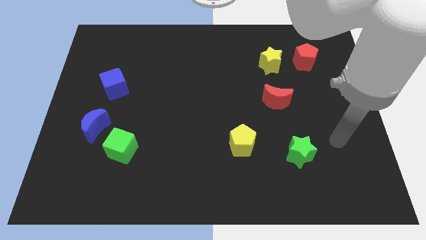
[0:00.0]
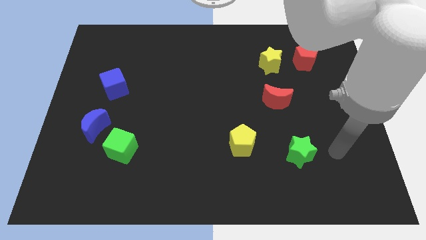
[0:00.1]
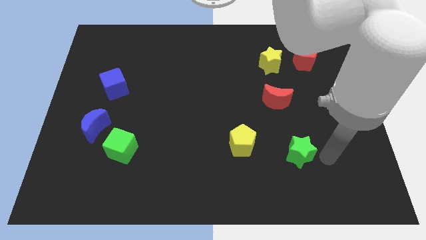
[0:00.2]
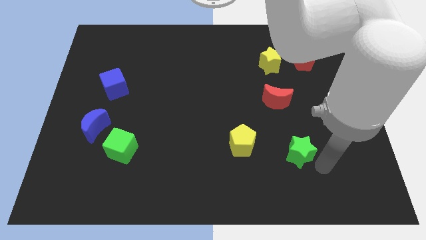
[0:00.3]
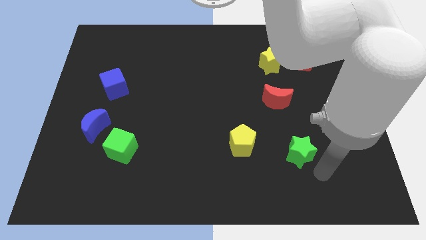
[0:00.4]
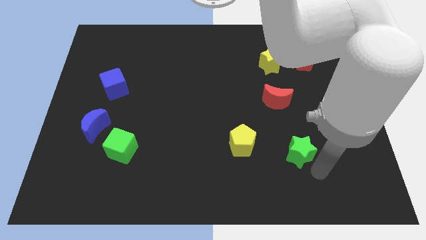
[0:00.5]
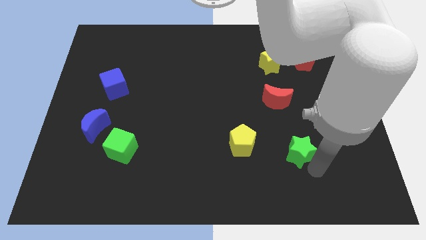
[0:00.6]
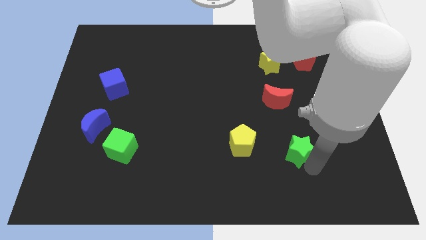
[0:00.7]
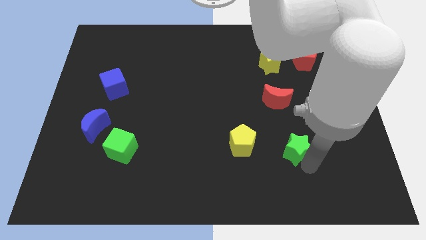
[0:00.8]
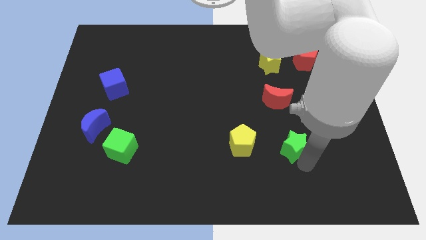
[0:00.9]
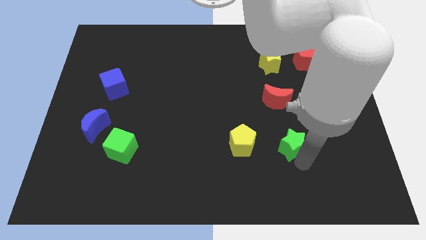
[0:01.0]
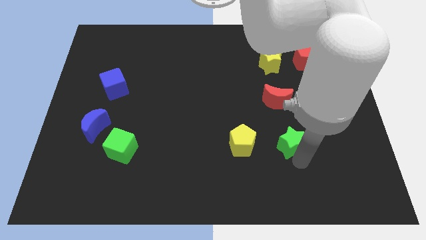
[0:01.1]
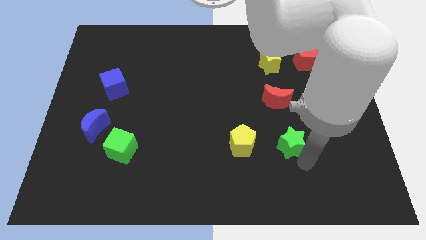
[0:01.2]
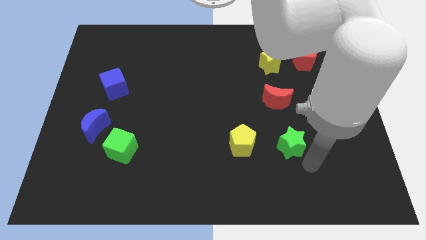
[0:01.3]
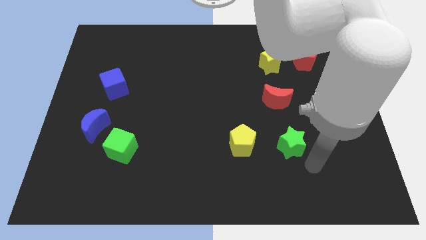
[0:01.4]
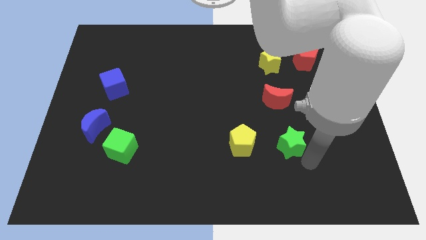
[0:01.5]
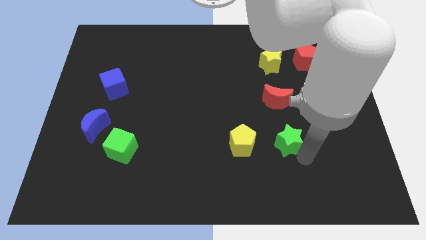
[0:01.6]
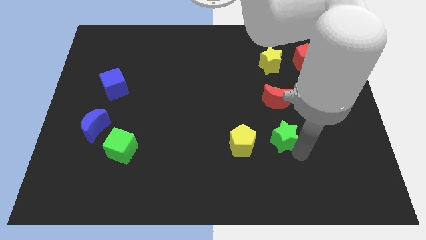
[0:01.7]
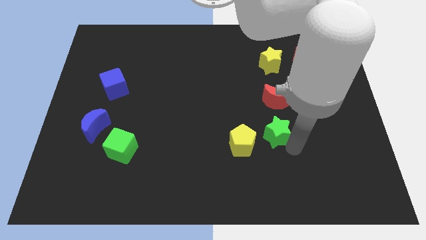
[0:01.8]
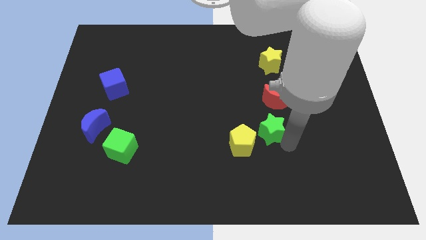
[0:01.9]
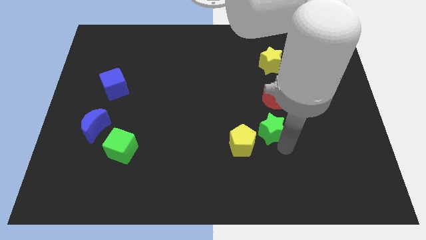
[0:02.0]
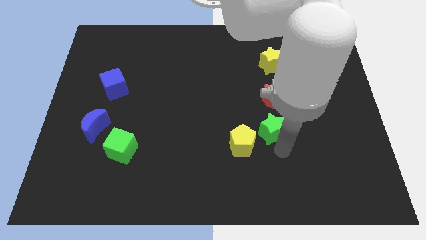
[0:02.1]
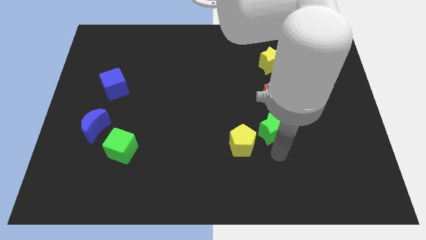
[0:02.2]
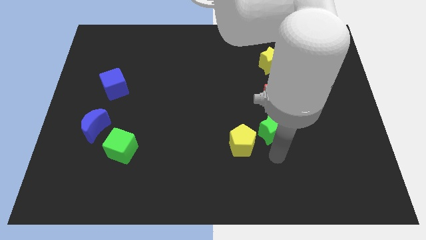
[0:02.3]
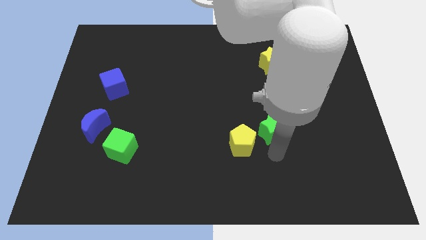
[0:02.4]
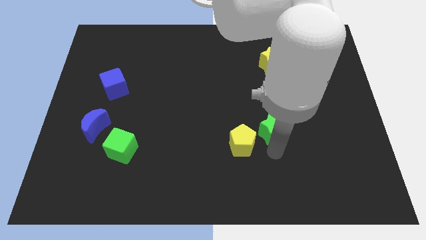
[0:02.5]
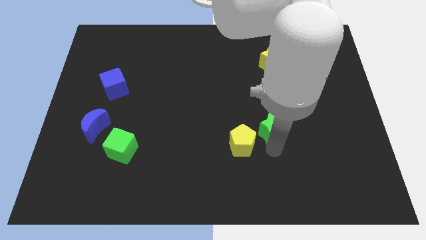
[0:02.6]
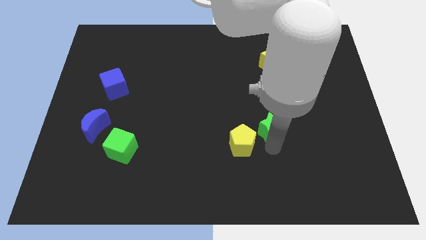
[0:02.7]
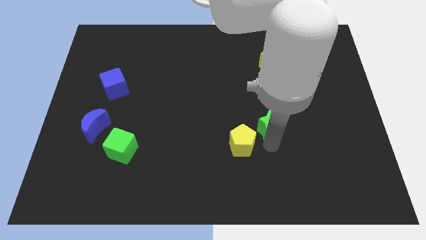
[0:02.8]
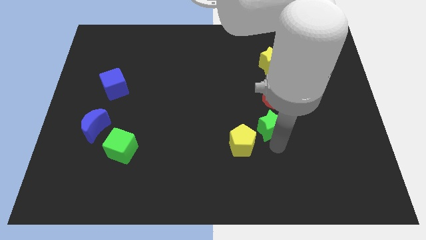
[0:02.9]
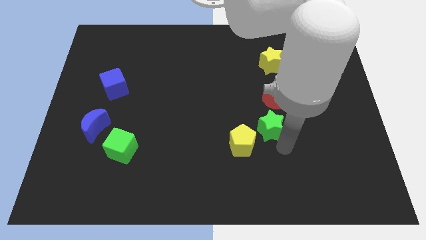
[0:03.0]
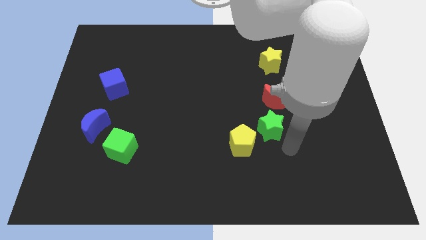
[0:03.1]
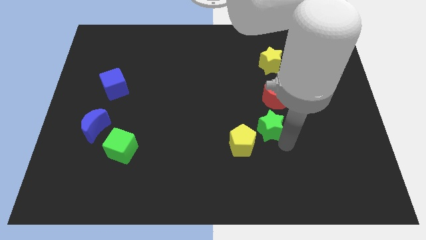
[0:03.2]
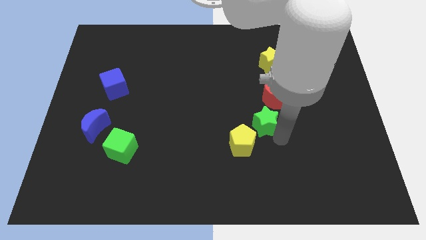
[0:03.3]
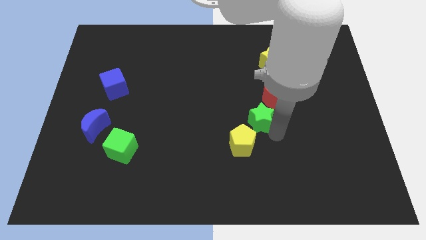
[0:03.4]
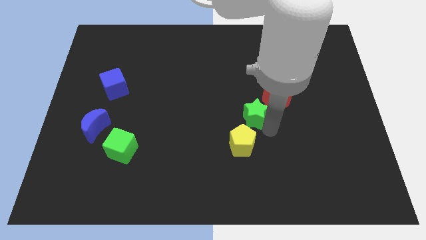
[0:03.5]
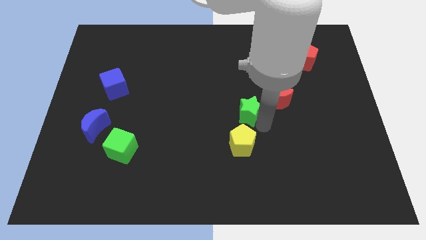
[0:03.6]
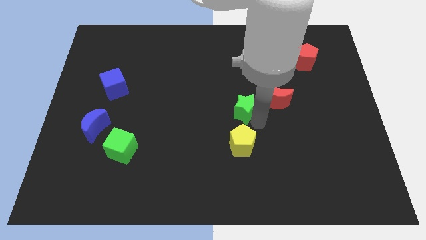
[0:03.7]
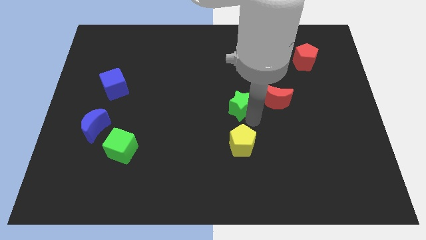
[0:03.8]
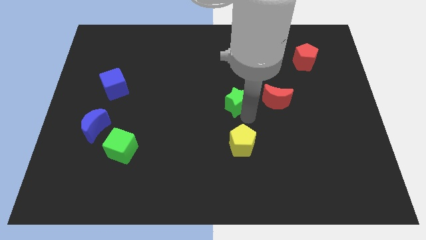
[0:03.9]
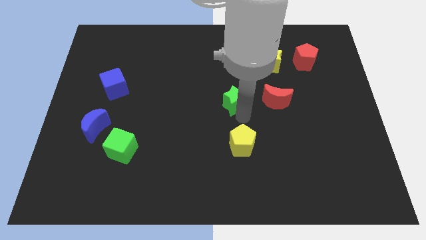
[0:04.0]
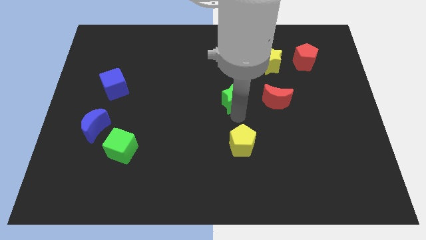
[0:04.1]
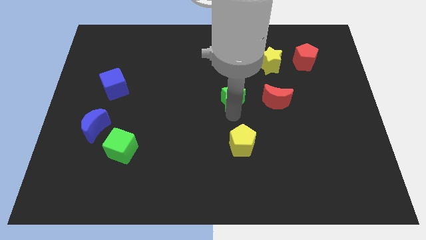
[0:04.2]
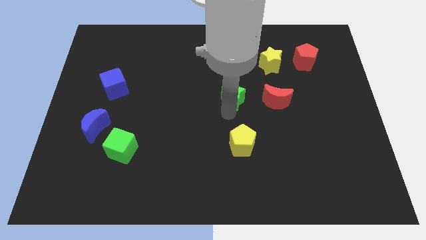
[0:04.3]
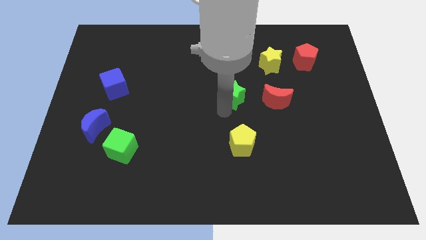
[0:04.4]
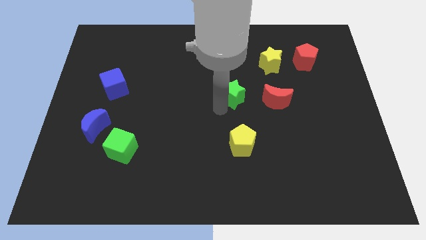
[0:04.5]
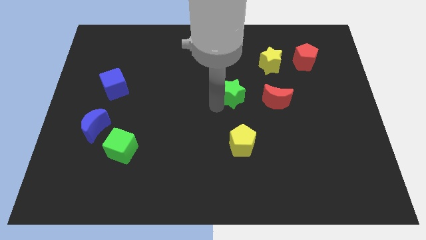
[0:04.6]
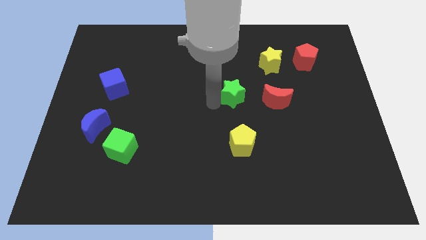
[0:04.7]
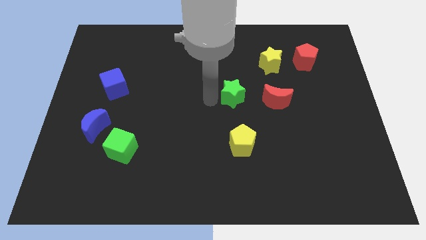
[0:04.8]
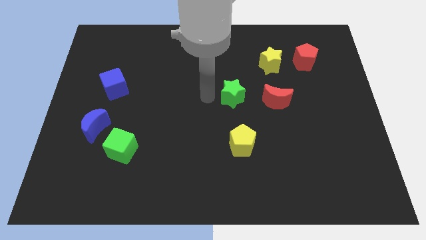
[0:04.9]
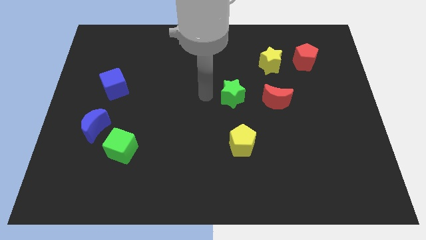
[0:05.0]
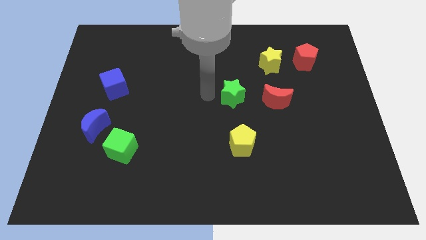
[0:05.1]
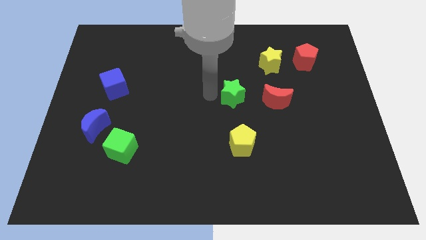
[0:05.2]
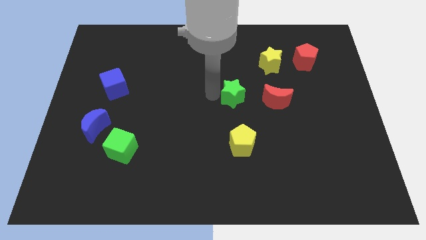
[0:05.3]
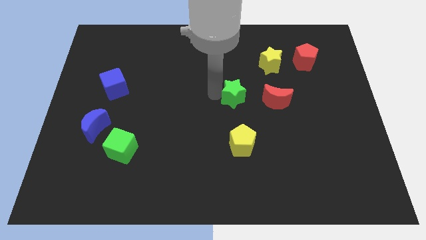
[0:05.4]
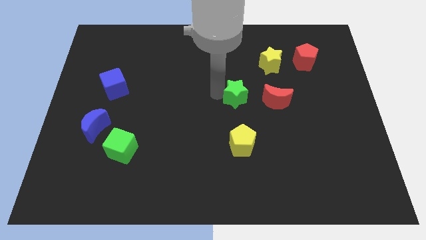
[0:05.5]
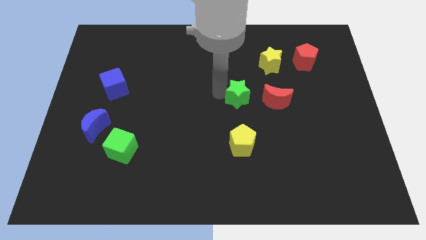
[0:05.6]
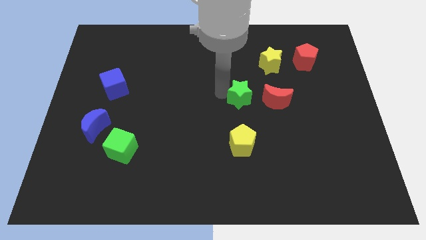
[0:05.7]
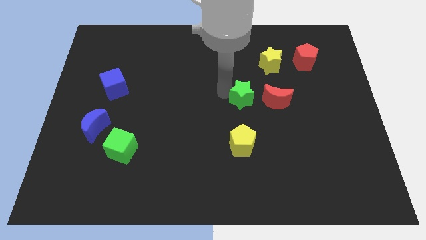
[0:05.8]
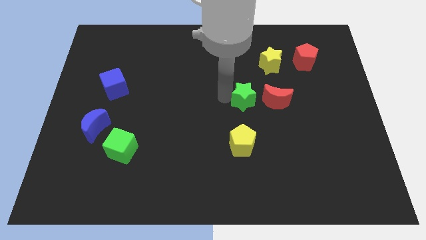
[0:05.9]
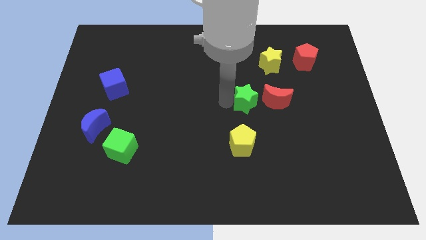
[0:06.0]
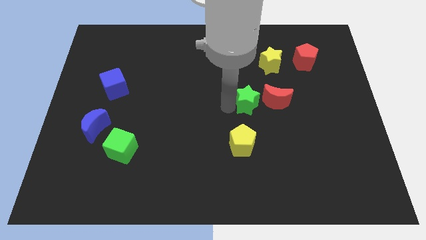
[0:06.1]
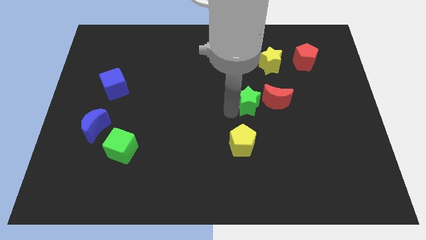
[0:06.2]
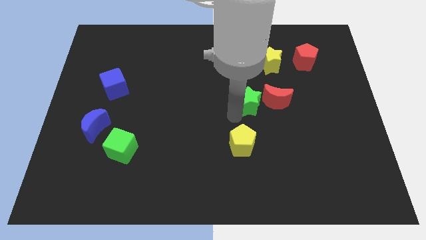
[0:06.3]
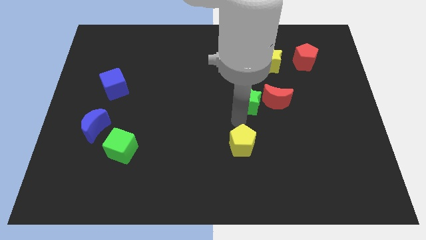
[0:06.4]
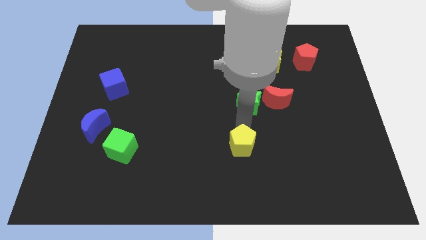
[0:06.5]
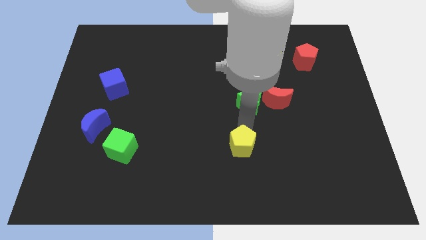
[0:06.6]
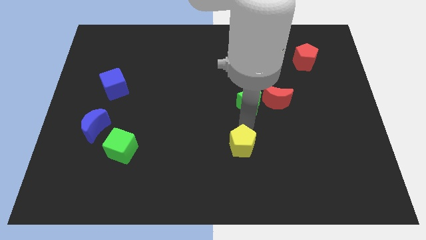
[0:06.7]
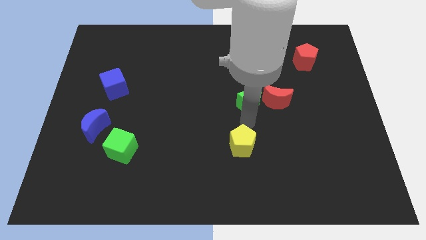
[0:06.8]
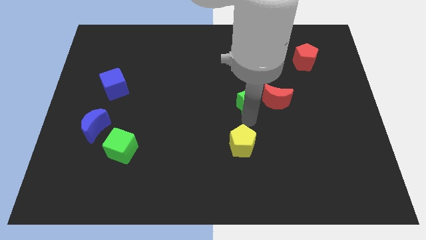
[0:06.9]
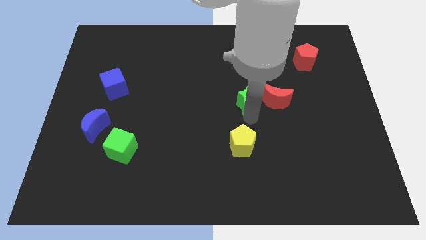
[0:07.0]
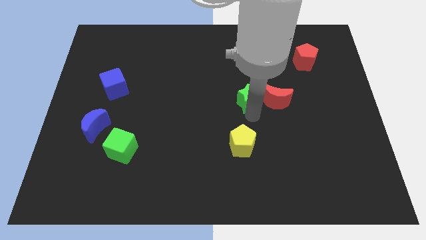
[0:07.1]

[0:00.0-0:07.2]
slide the green star to the top left of the red moon
